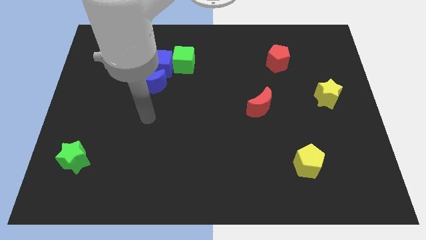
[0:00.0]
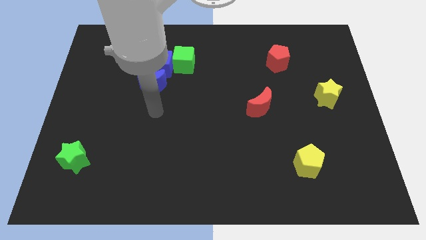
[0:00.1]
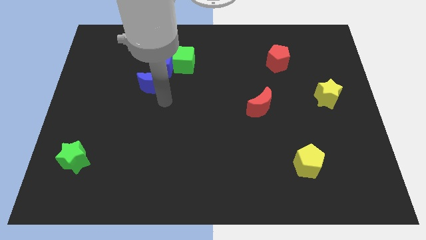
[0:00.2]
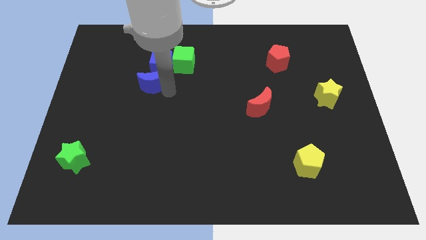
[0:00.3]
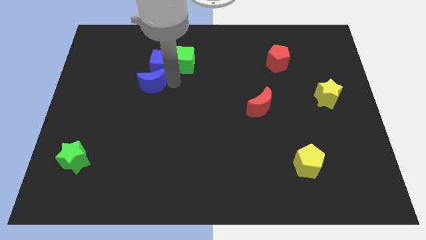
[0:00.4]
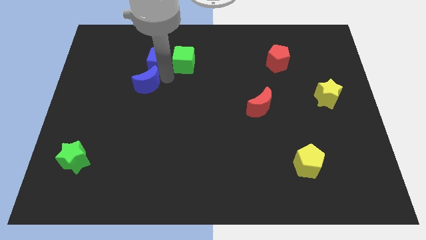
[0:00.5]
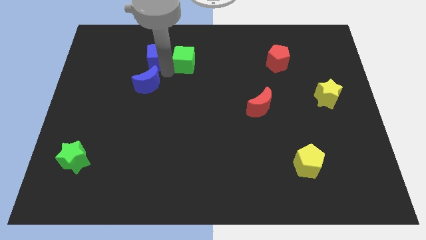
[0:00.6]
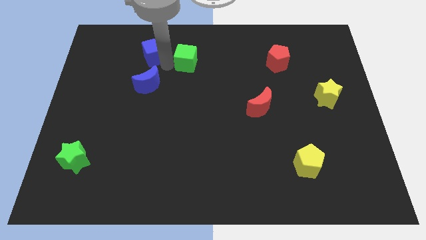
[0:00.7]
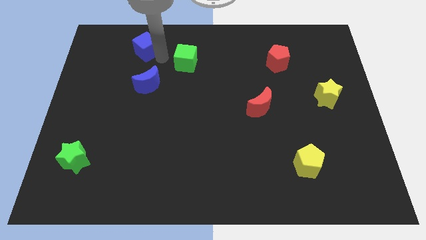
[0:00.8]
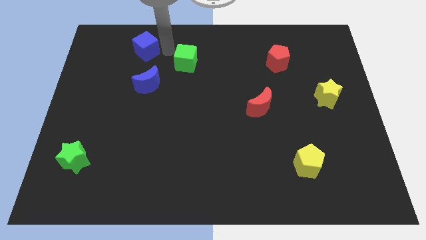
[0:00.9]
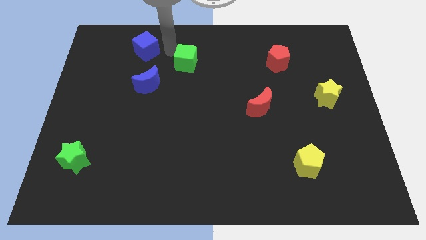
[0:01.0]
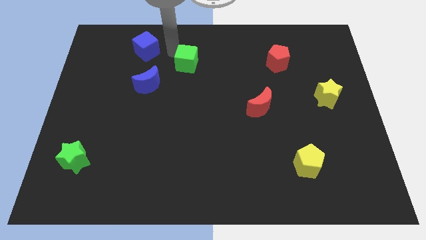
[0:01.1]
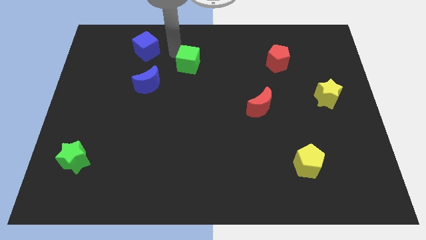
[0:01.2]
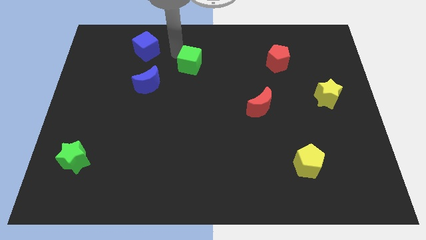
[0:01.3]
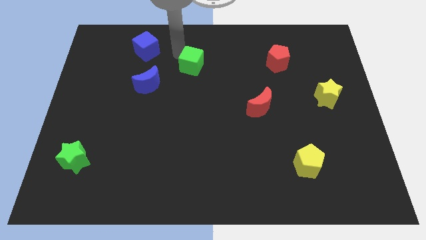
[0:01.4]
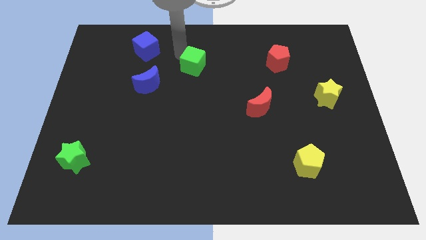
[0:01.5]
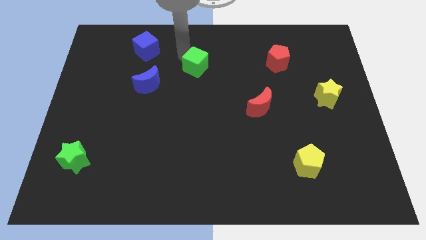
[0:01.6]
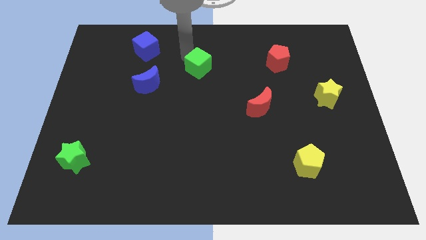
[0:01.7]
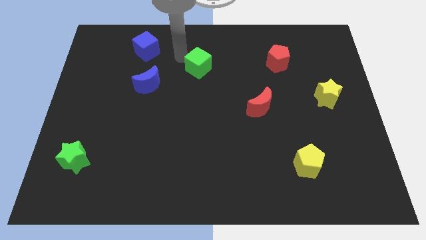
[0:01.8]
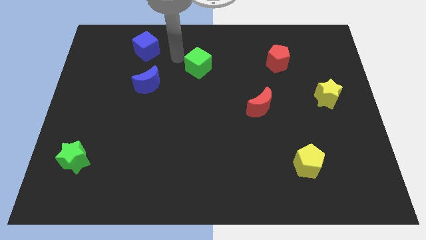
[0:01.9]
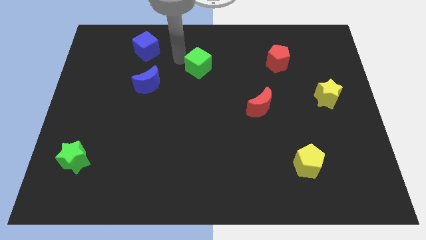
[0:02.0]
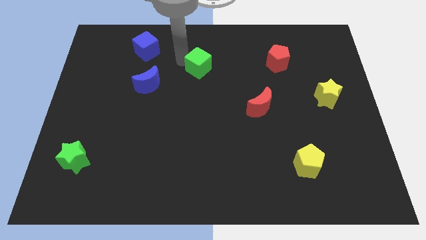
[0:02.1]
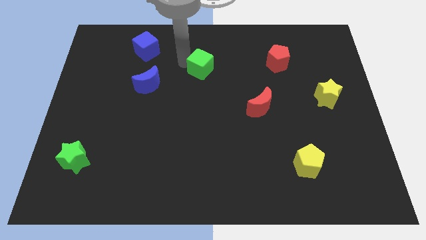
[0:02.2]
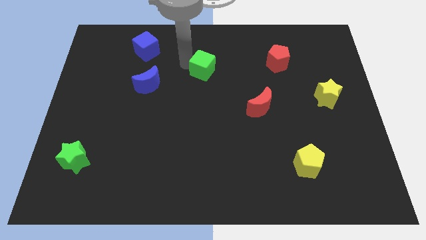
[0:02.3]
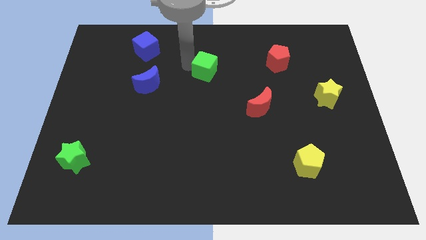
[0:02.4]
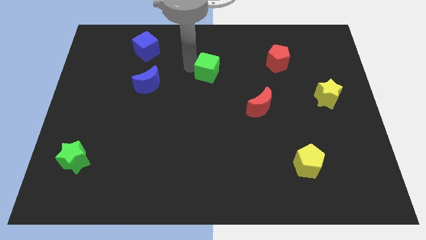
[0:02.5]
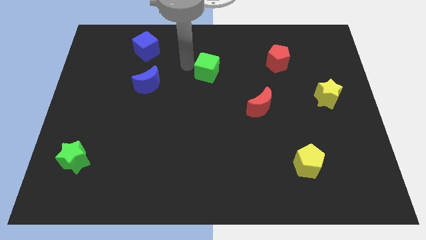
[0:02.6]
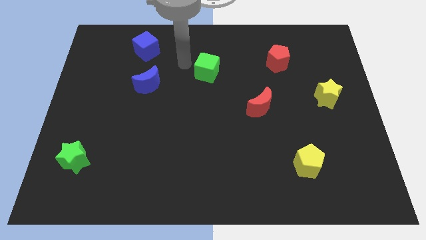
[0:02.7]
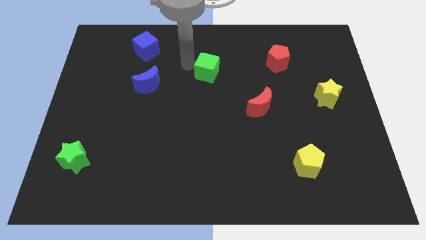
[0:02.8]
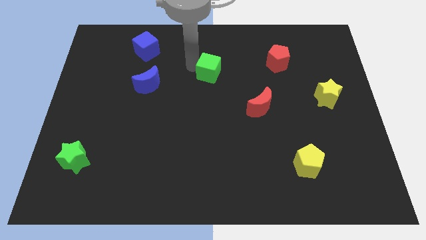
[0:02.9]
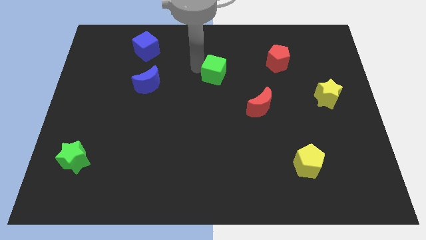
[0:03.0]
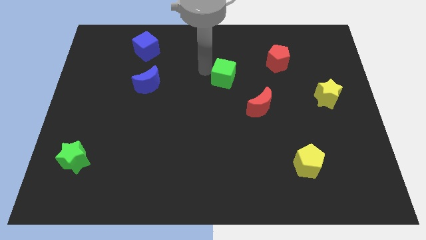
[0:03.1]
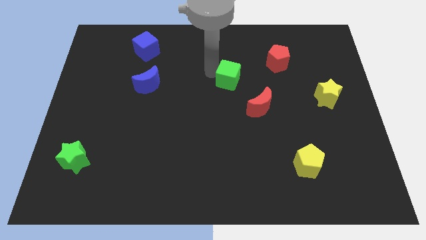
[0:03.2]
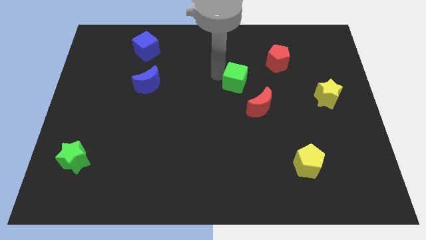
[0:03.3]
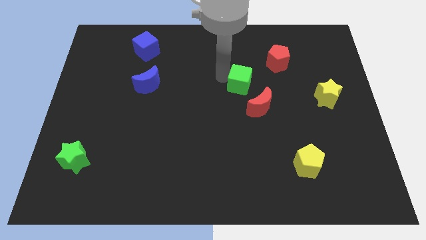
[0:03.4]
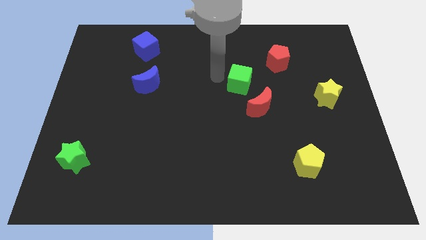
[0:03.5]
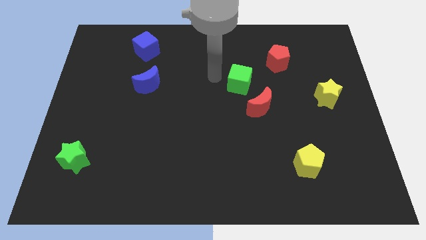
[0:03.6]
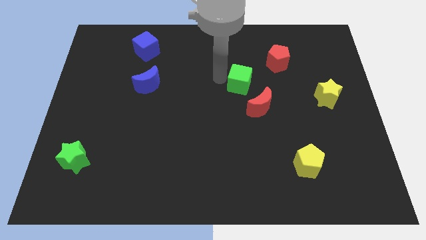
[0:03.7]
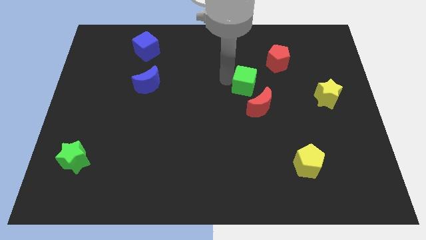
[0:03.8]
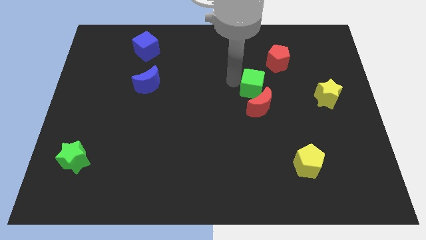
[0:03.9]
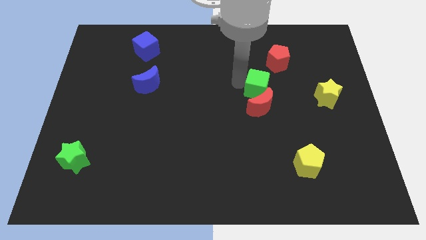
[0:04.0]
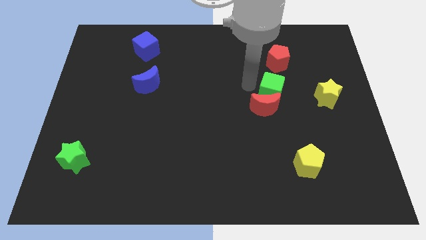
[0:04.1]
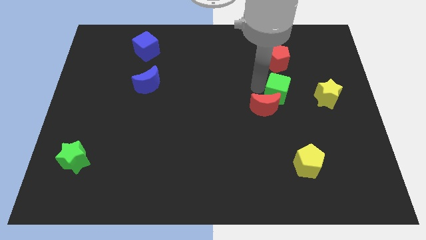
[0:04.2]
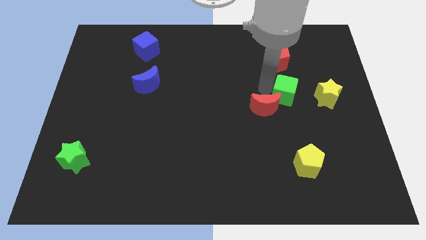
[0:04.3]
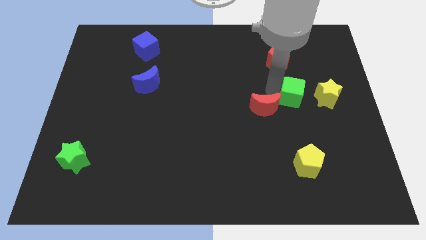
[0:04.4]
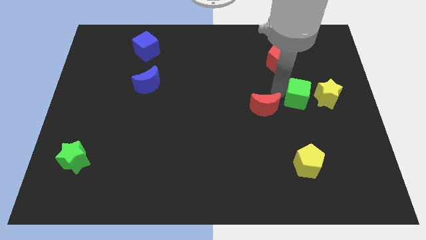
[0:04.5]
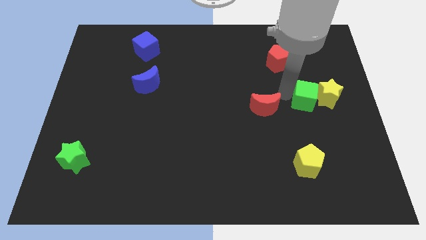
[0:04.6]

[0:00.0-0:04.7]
push the green cube to the yellow star

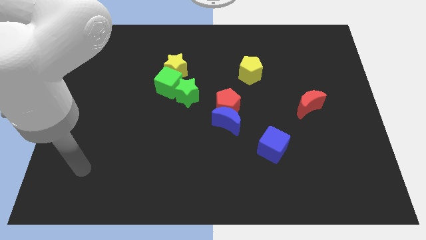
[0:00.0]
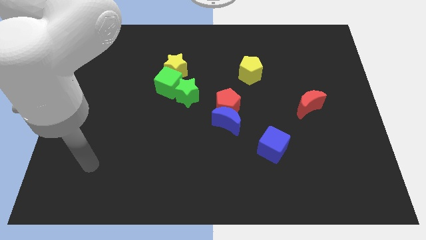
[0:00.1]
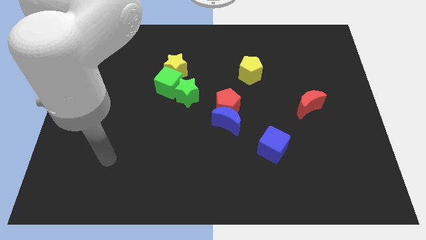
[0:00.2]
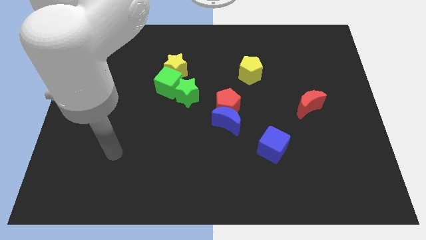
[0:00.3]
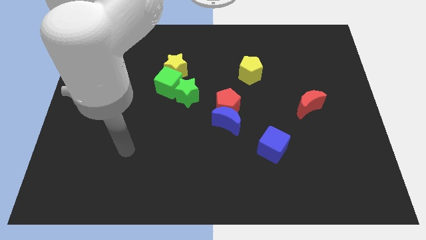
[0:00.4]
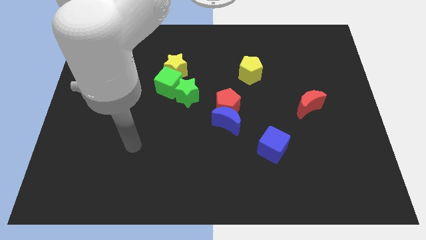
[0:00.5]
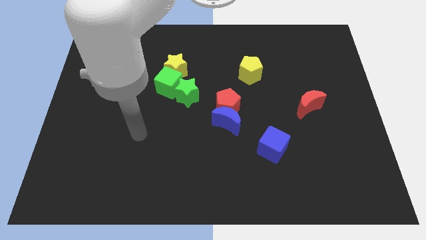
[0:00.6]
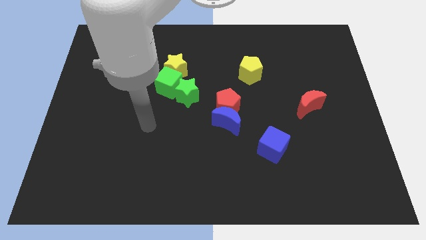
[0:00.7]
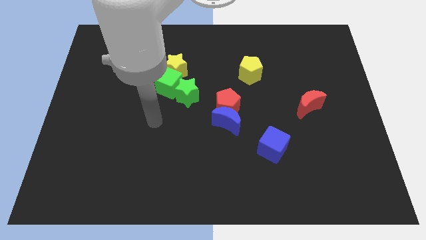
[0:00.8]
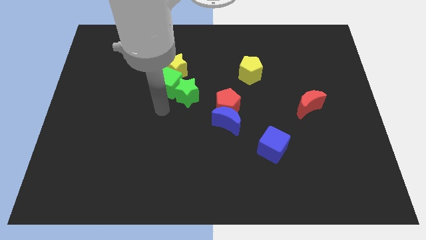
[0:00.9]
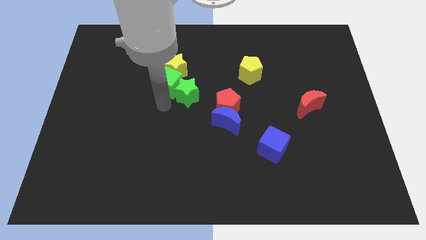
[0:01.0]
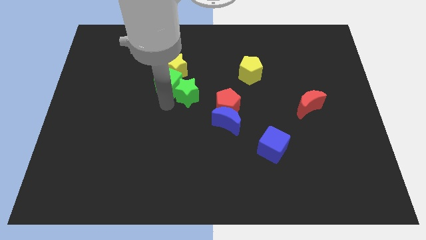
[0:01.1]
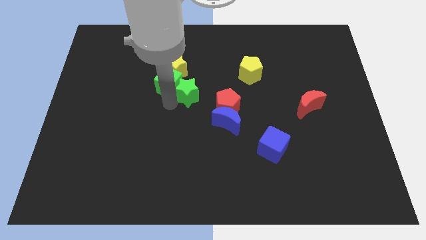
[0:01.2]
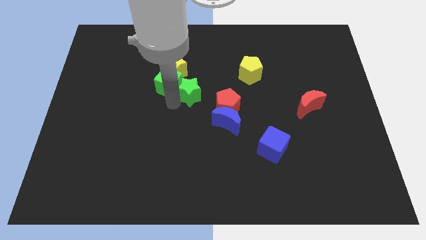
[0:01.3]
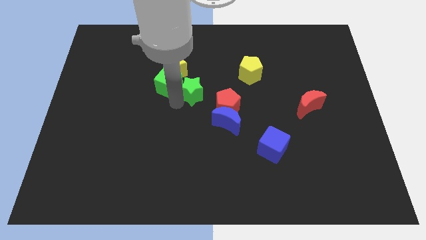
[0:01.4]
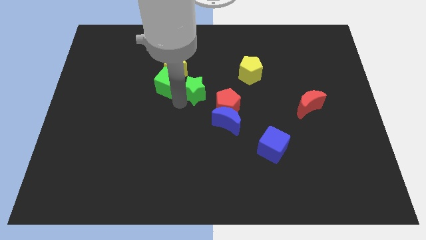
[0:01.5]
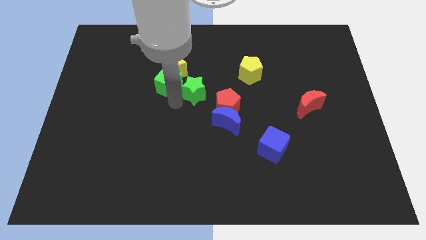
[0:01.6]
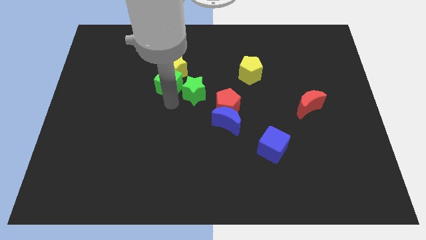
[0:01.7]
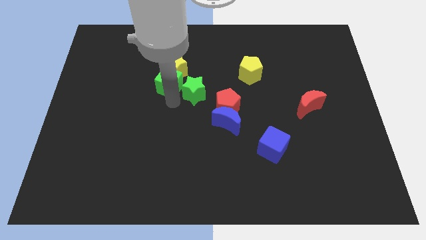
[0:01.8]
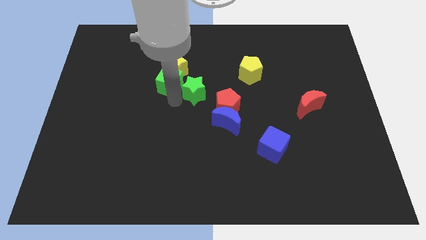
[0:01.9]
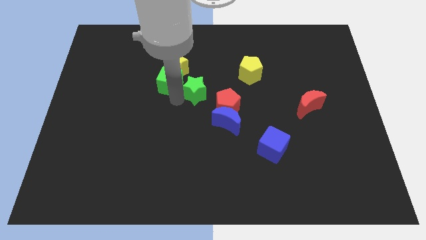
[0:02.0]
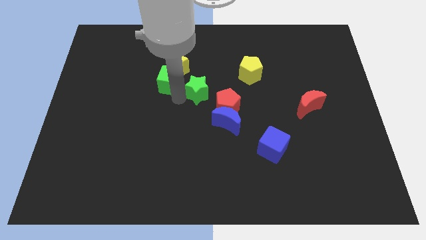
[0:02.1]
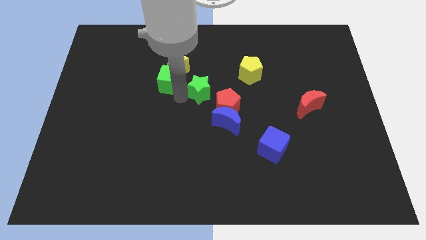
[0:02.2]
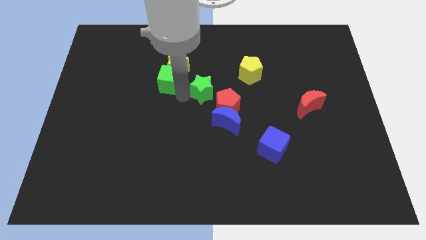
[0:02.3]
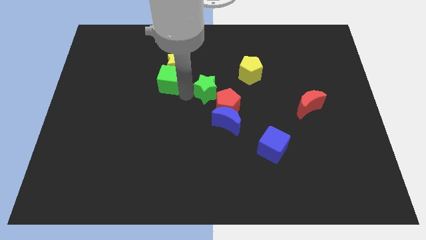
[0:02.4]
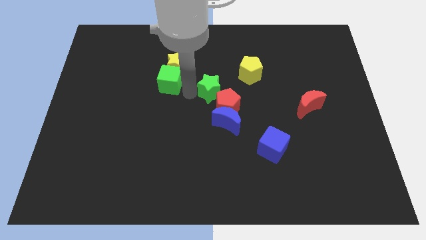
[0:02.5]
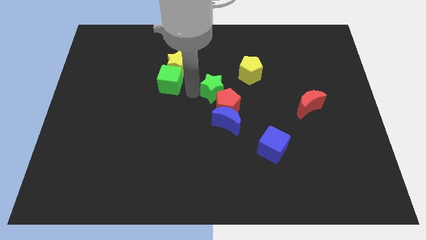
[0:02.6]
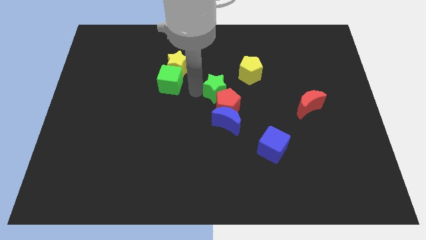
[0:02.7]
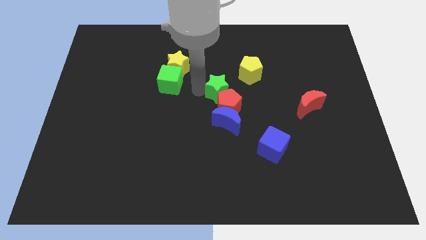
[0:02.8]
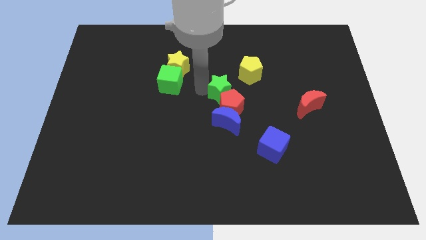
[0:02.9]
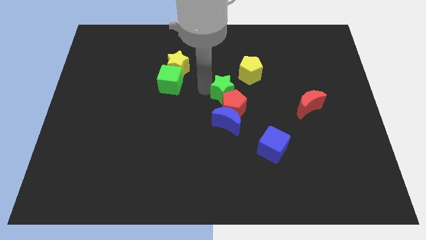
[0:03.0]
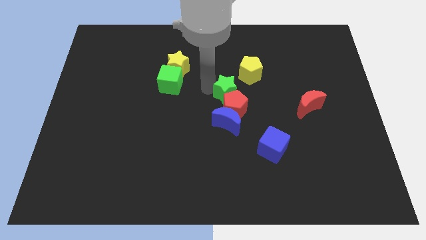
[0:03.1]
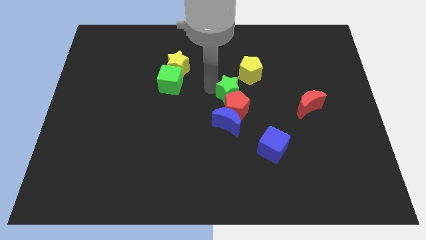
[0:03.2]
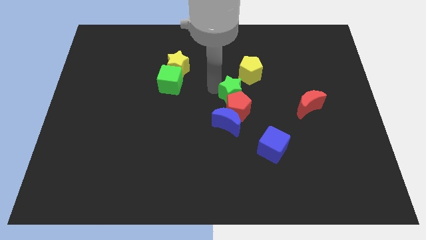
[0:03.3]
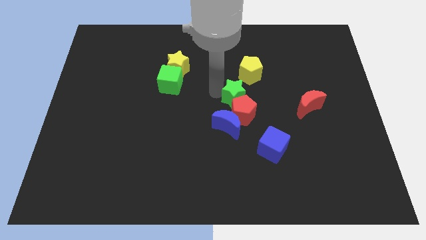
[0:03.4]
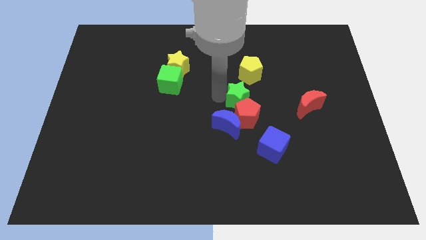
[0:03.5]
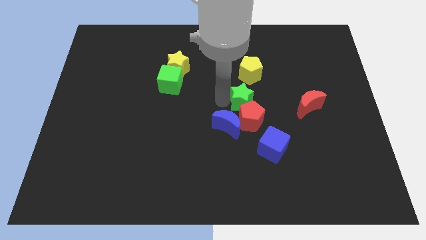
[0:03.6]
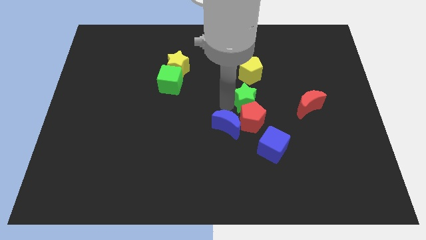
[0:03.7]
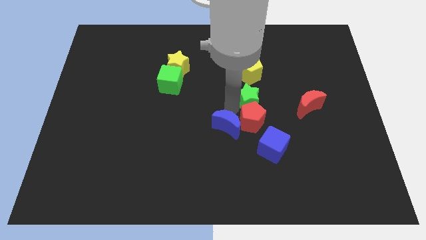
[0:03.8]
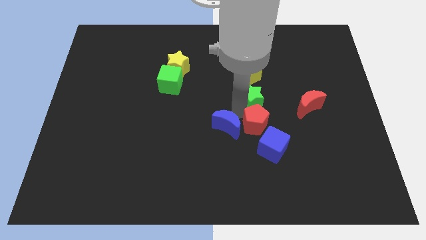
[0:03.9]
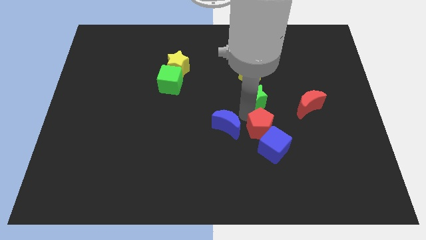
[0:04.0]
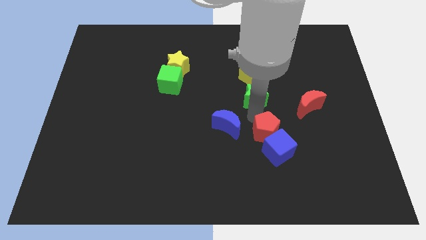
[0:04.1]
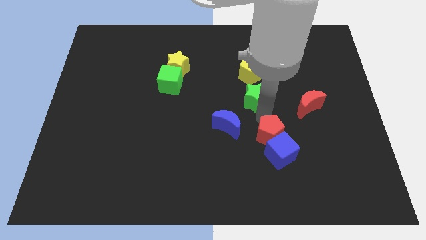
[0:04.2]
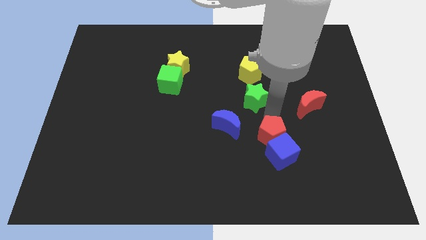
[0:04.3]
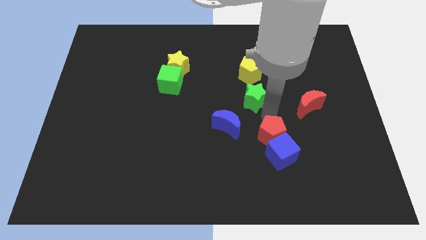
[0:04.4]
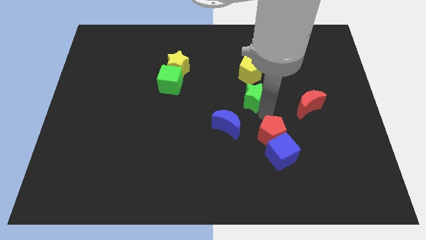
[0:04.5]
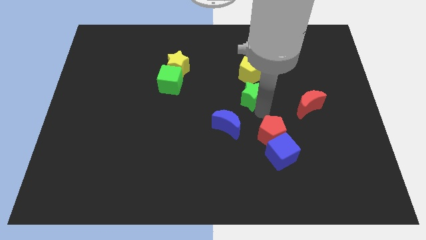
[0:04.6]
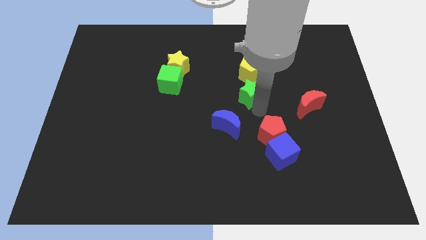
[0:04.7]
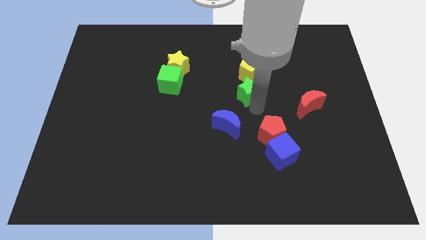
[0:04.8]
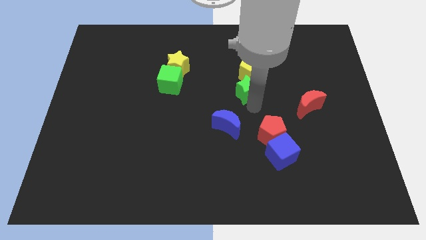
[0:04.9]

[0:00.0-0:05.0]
move the green star close to the yellow pentagon
